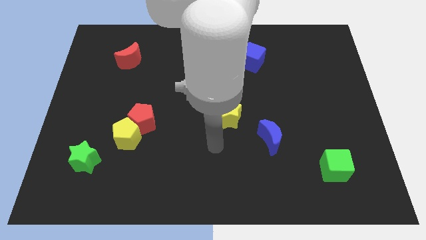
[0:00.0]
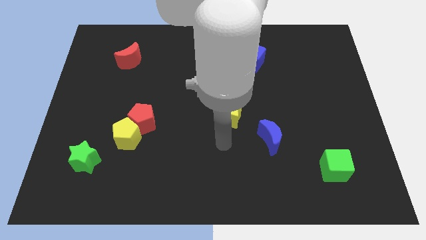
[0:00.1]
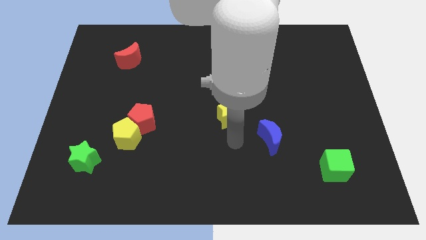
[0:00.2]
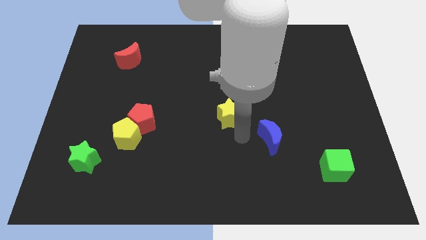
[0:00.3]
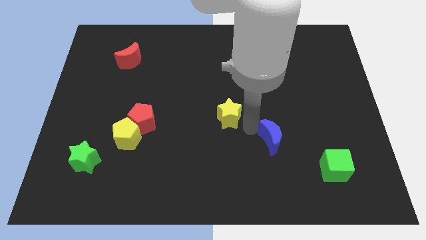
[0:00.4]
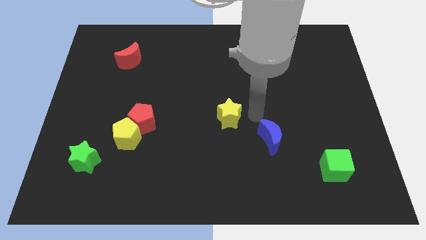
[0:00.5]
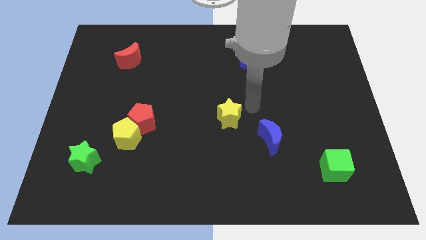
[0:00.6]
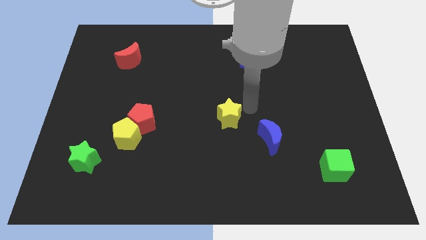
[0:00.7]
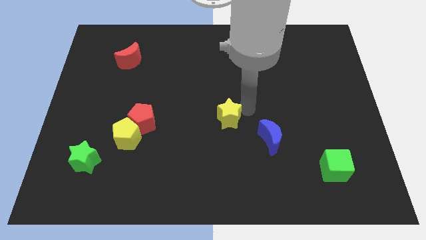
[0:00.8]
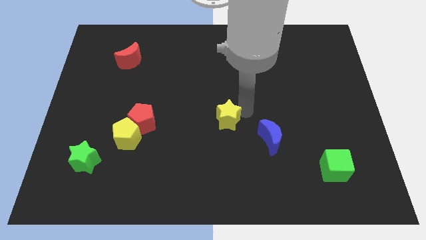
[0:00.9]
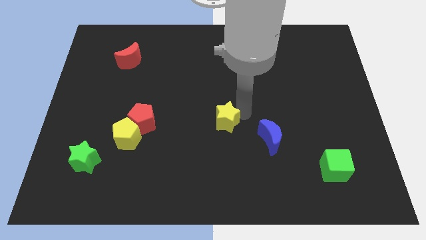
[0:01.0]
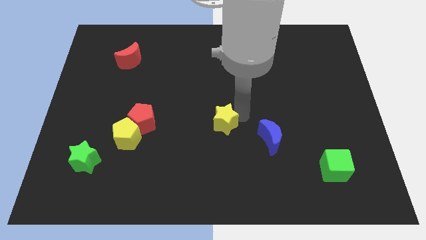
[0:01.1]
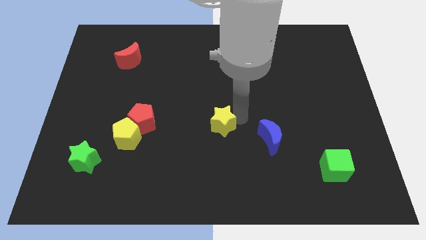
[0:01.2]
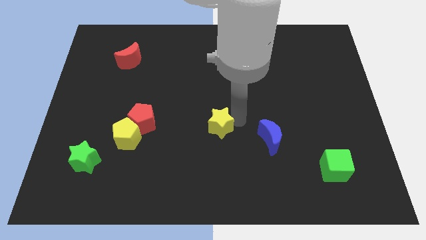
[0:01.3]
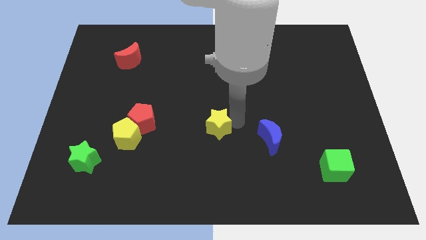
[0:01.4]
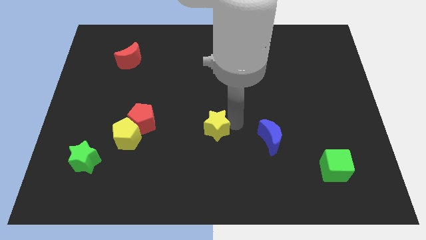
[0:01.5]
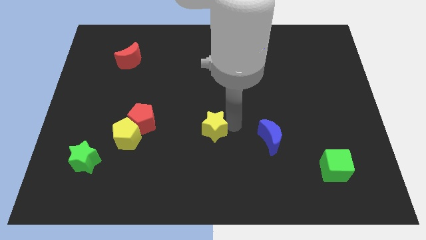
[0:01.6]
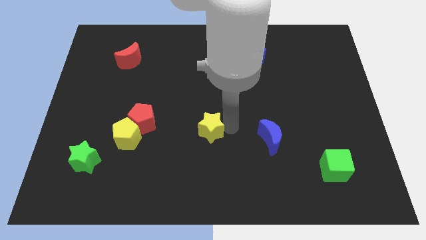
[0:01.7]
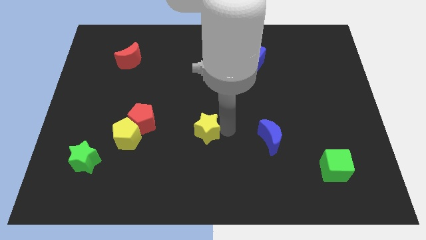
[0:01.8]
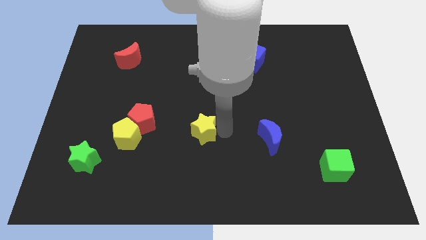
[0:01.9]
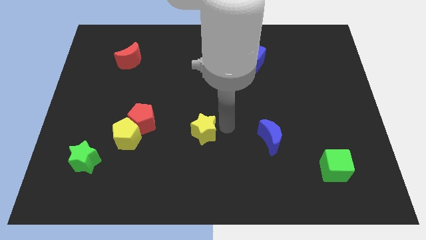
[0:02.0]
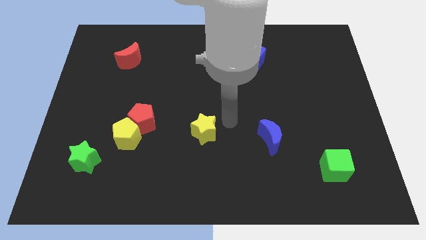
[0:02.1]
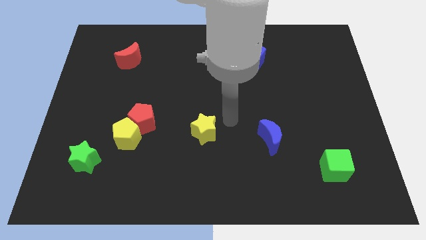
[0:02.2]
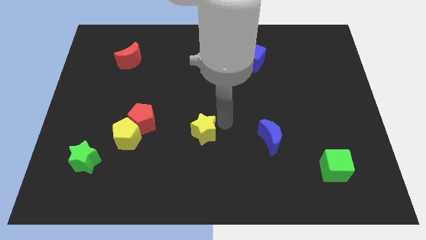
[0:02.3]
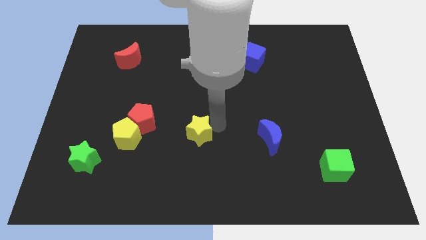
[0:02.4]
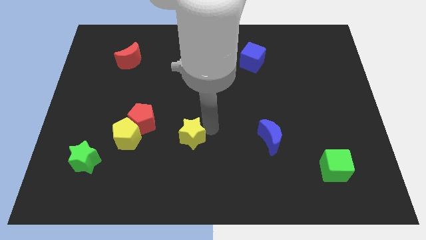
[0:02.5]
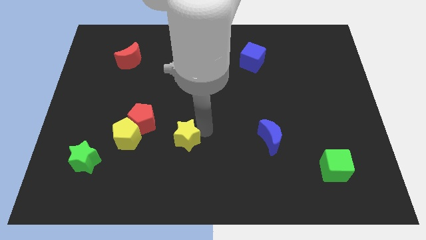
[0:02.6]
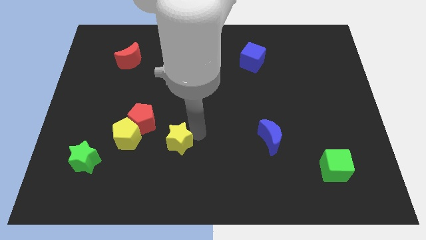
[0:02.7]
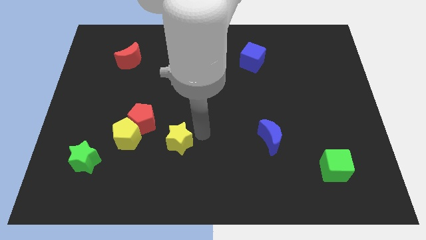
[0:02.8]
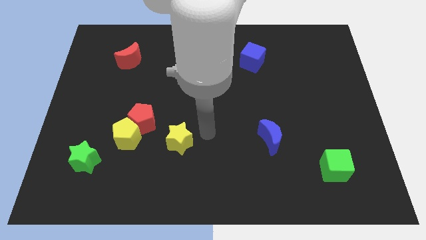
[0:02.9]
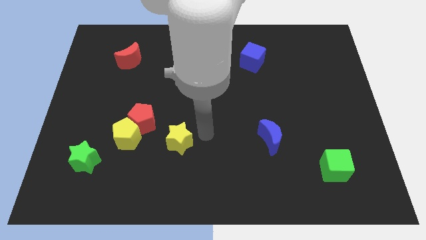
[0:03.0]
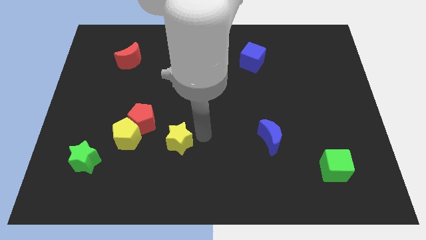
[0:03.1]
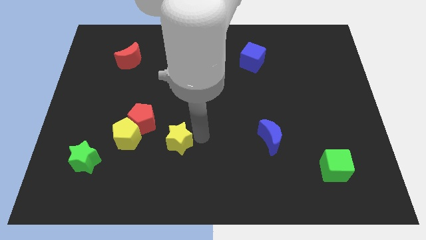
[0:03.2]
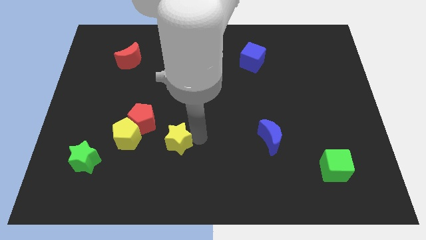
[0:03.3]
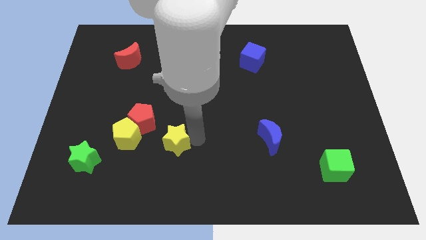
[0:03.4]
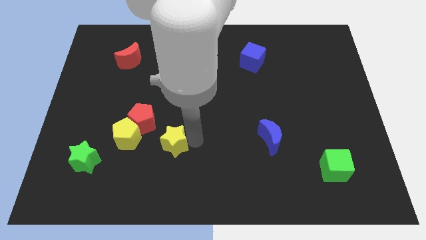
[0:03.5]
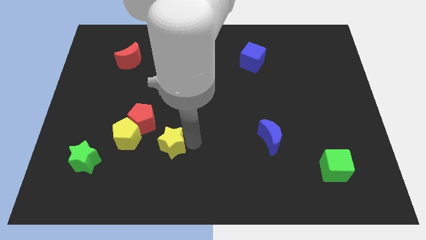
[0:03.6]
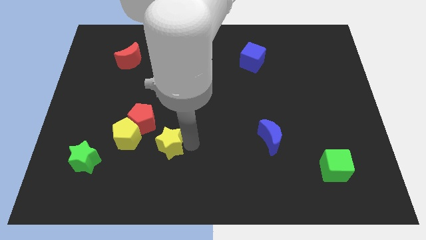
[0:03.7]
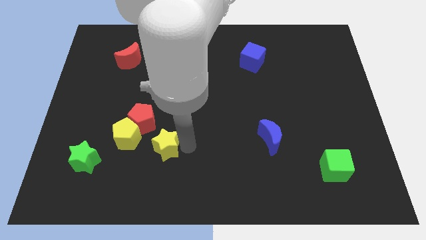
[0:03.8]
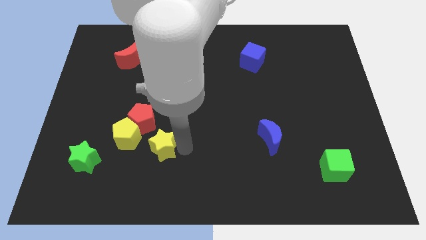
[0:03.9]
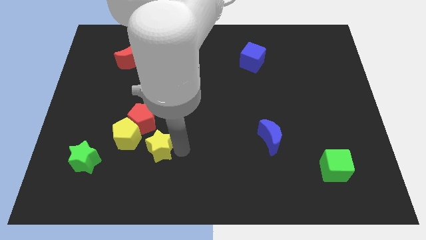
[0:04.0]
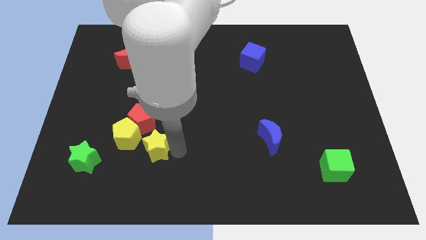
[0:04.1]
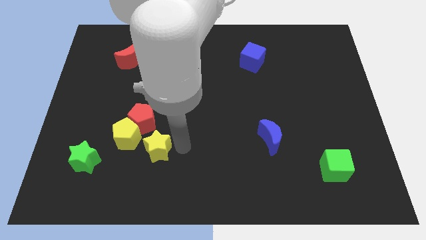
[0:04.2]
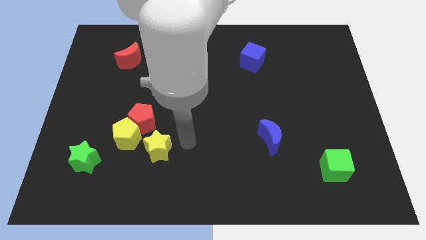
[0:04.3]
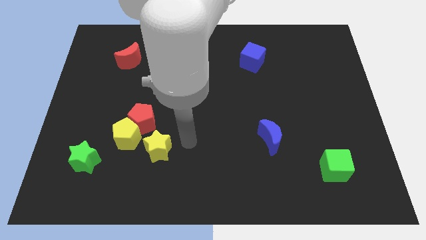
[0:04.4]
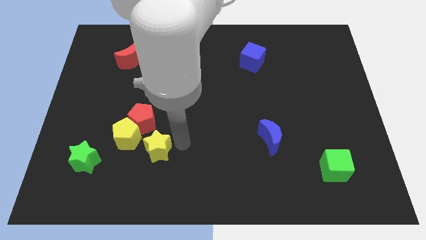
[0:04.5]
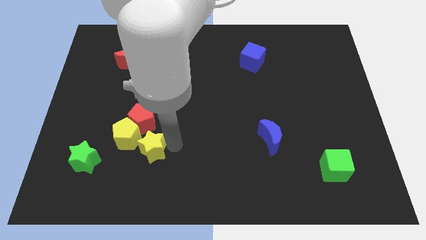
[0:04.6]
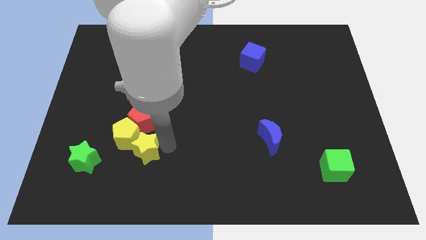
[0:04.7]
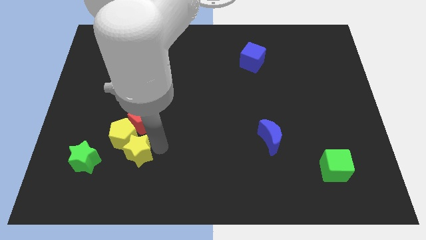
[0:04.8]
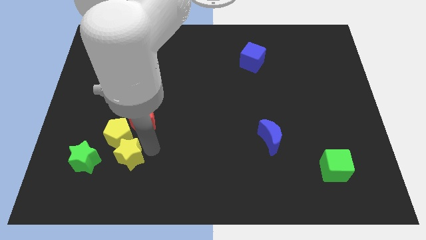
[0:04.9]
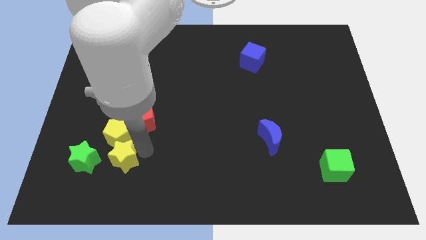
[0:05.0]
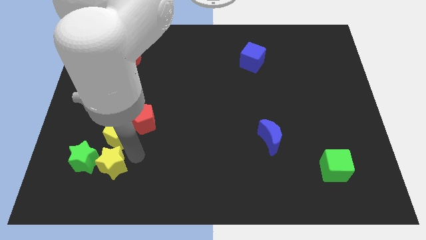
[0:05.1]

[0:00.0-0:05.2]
slide the yellow star next to the green star

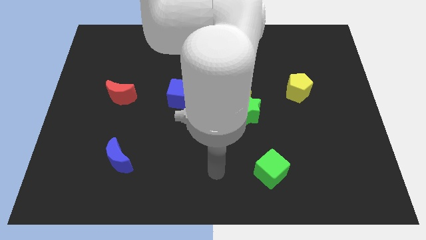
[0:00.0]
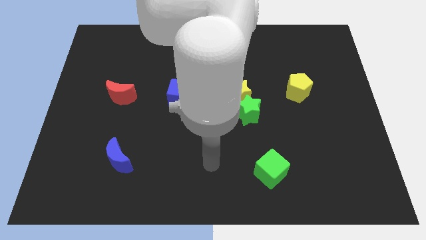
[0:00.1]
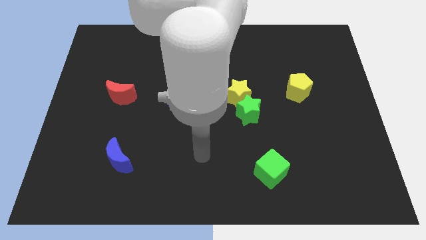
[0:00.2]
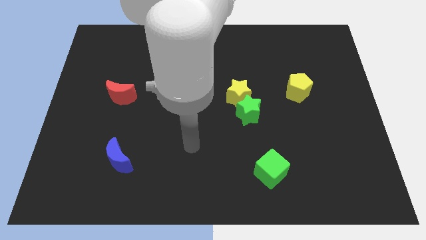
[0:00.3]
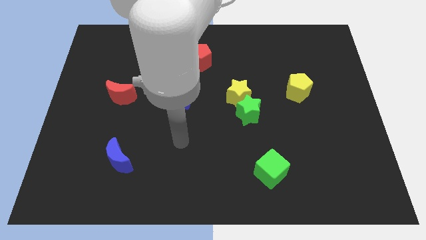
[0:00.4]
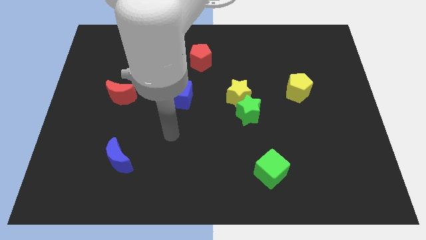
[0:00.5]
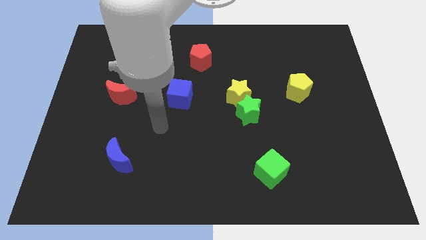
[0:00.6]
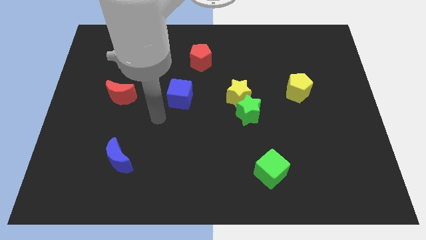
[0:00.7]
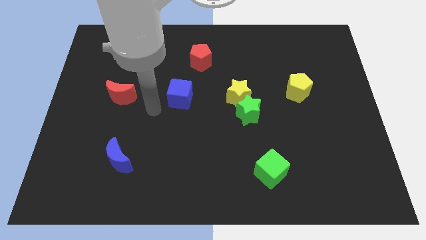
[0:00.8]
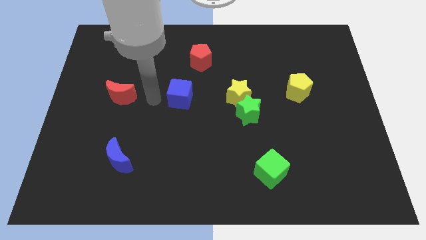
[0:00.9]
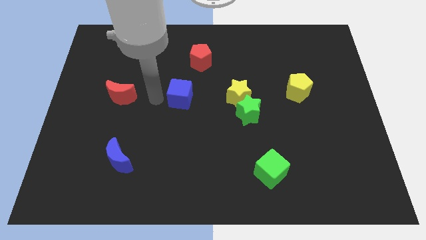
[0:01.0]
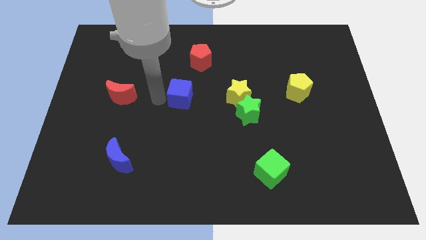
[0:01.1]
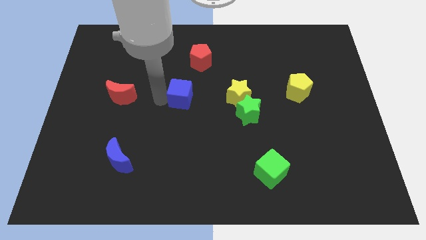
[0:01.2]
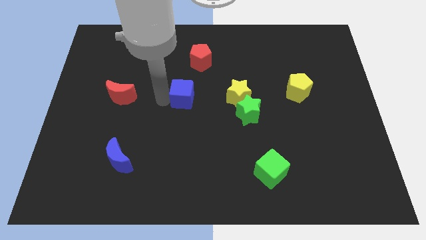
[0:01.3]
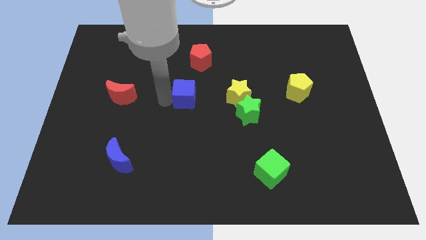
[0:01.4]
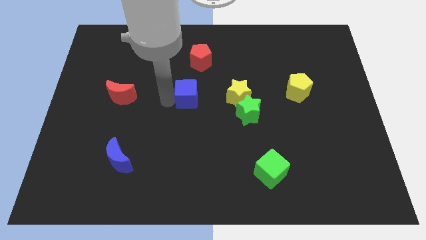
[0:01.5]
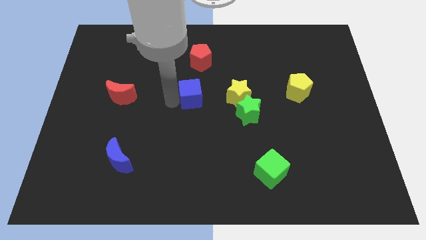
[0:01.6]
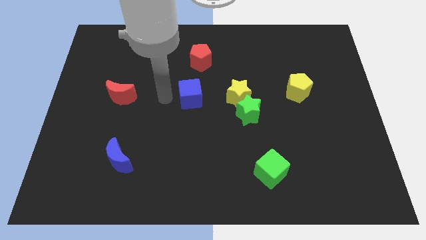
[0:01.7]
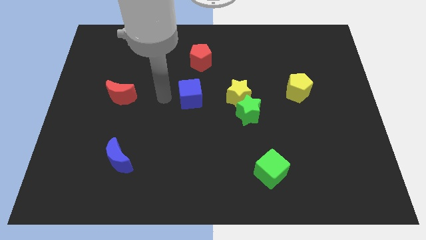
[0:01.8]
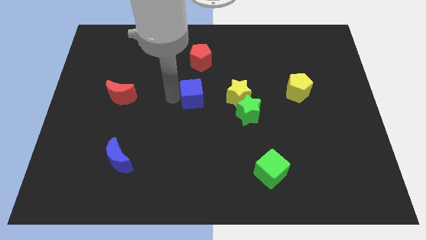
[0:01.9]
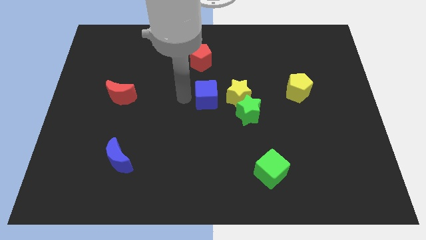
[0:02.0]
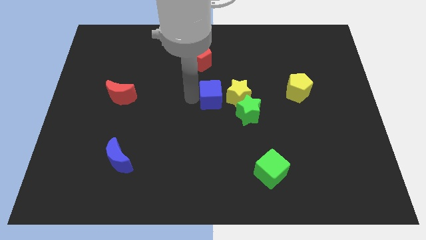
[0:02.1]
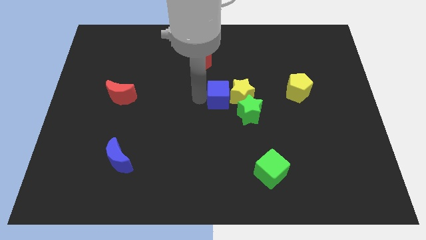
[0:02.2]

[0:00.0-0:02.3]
slide the blue cube towards the yellow star

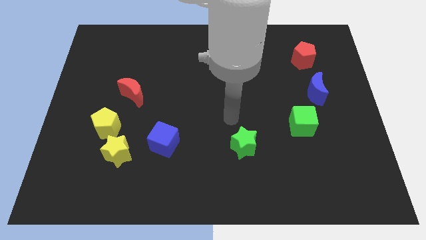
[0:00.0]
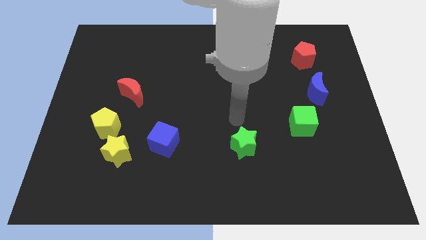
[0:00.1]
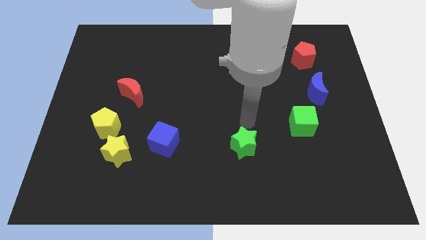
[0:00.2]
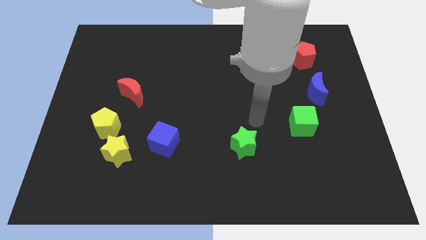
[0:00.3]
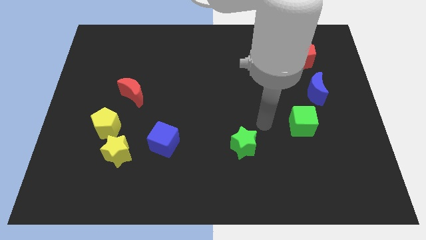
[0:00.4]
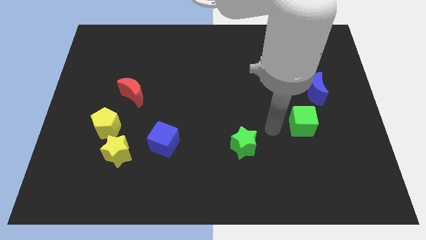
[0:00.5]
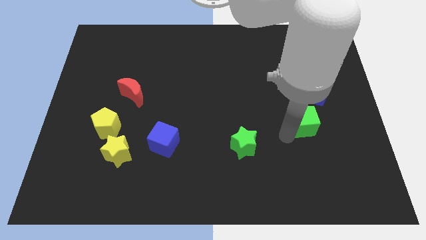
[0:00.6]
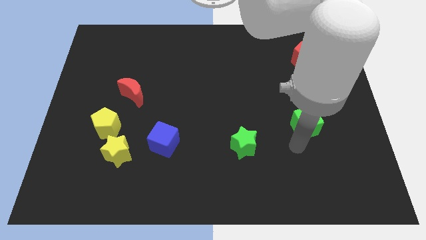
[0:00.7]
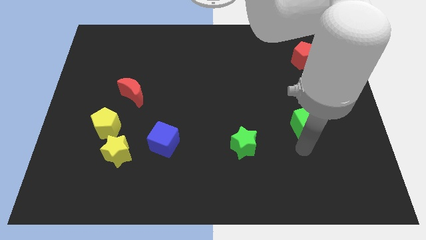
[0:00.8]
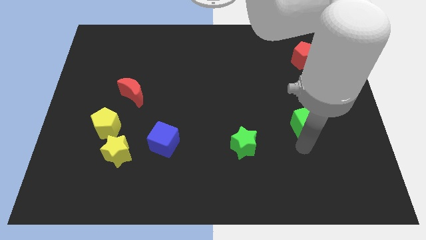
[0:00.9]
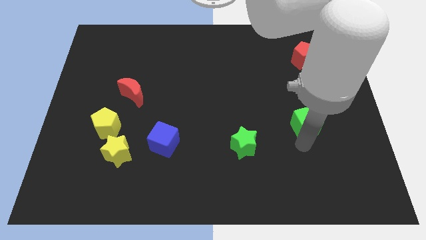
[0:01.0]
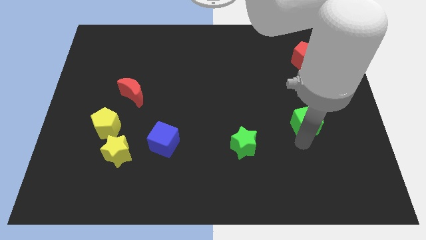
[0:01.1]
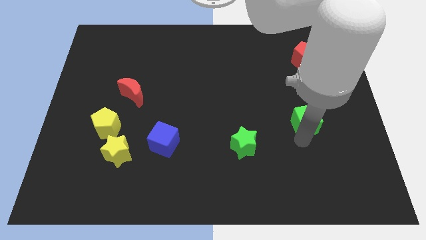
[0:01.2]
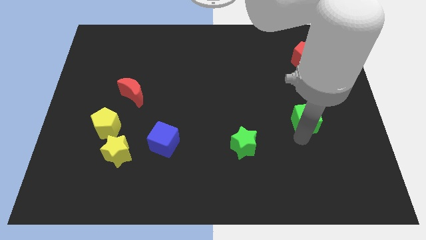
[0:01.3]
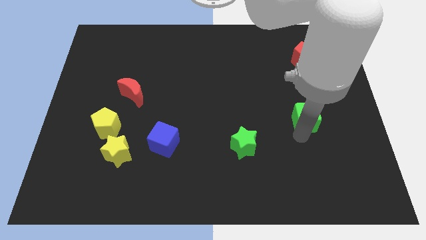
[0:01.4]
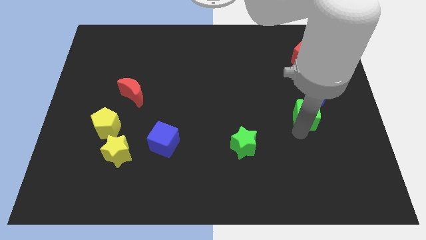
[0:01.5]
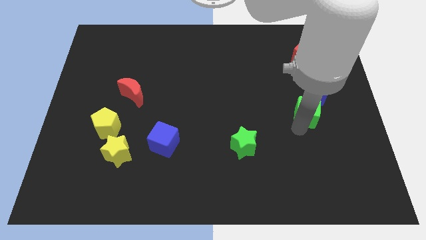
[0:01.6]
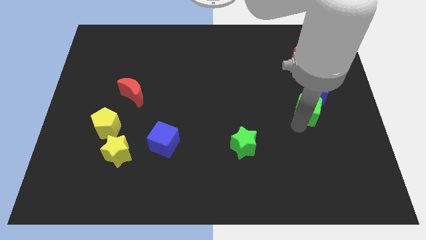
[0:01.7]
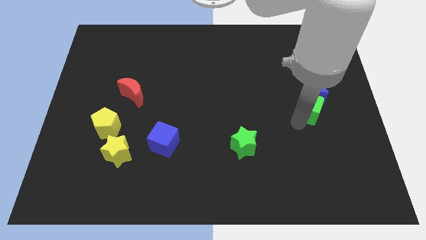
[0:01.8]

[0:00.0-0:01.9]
move the green cube to the blue moon
